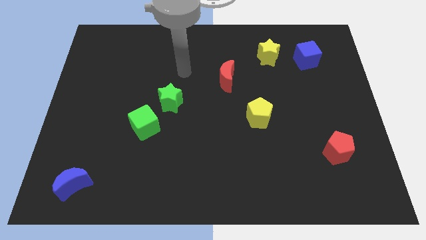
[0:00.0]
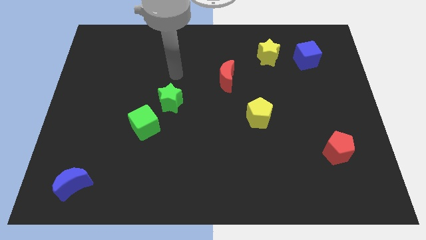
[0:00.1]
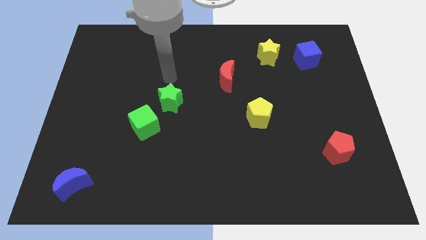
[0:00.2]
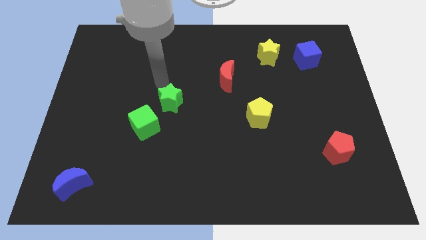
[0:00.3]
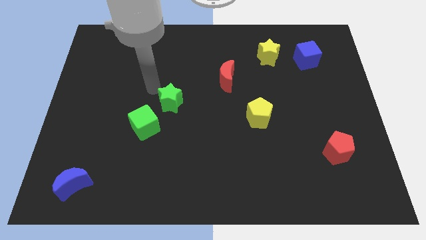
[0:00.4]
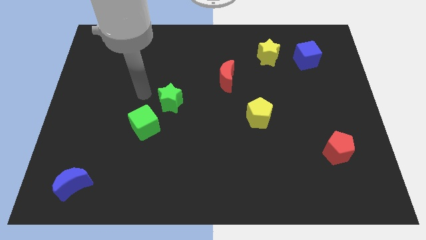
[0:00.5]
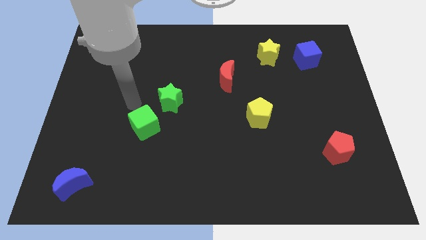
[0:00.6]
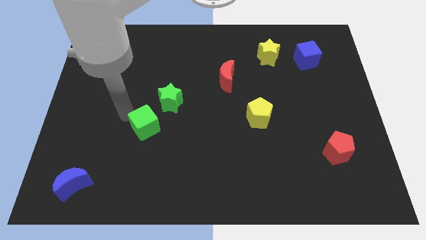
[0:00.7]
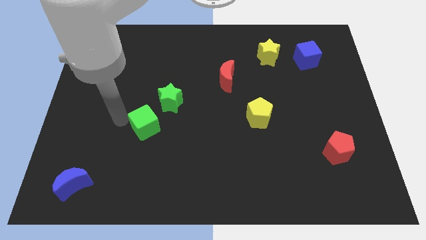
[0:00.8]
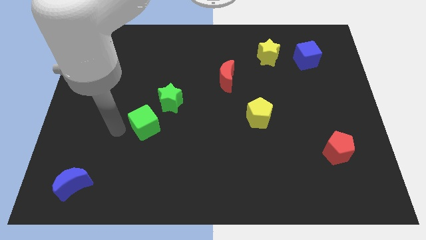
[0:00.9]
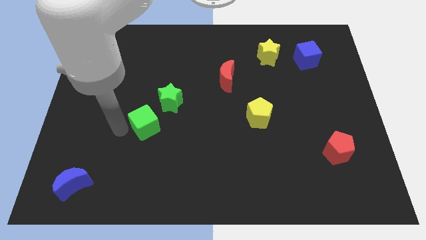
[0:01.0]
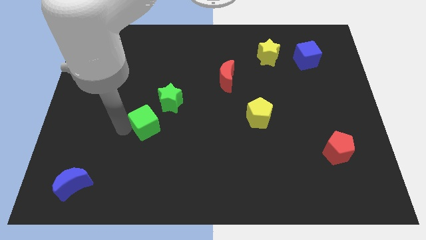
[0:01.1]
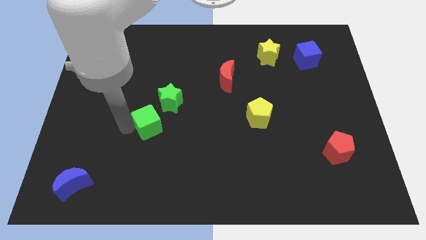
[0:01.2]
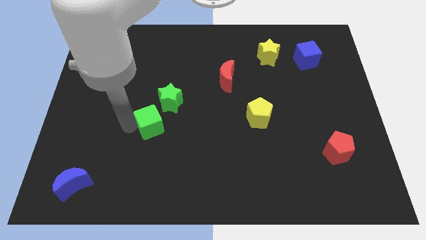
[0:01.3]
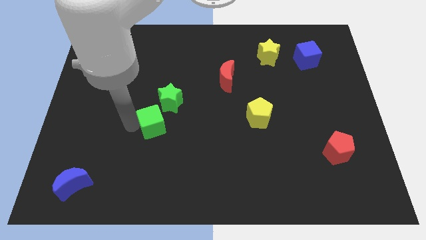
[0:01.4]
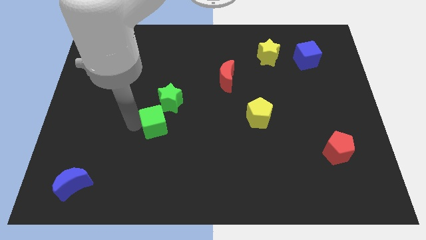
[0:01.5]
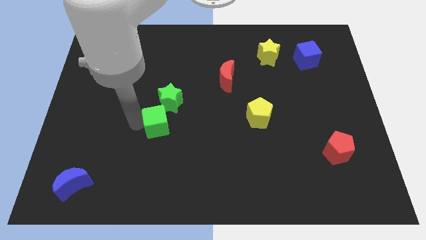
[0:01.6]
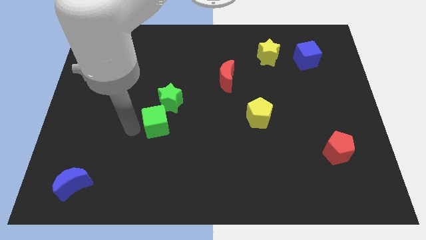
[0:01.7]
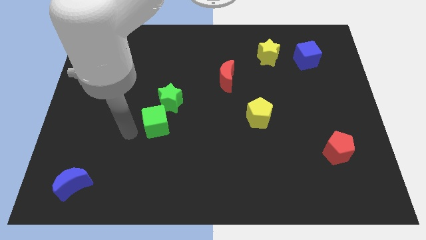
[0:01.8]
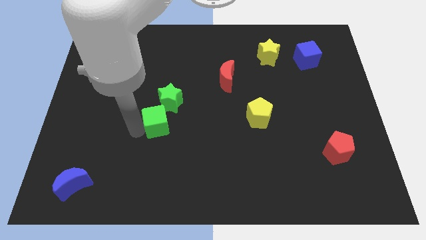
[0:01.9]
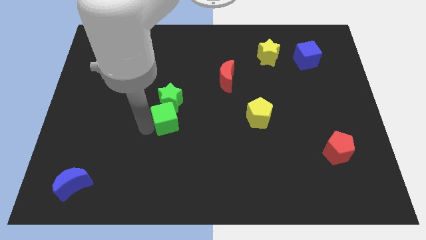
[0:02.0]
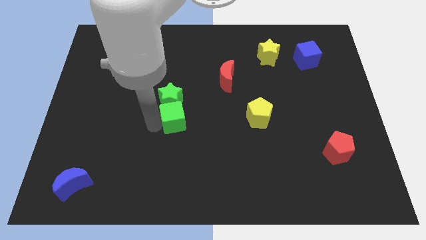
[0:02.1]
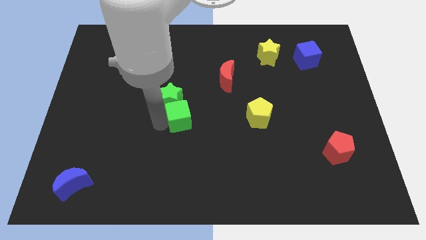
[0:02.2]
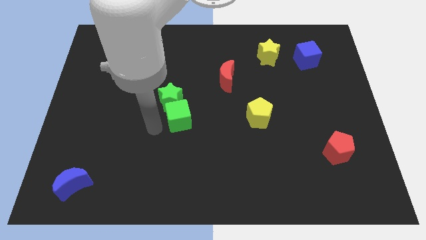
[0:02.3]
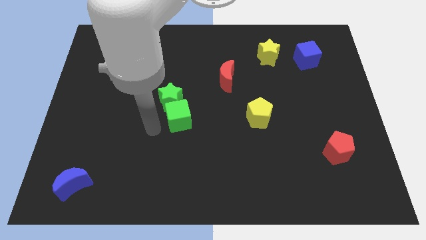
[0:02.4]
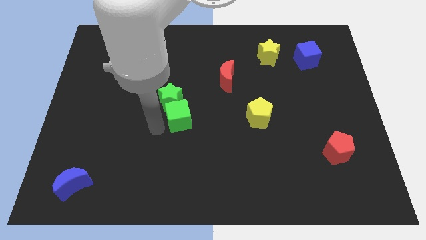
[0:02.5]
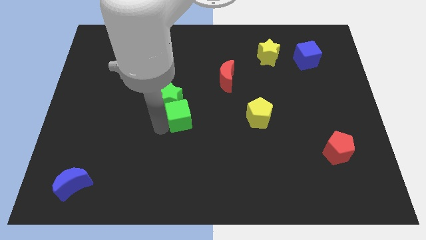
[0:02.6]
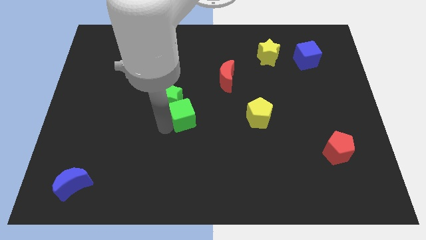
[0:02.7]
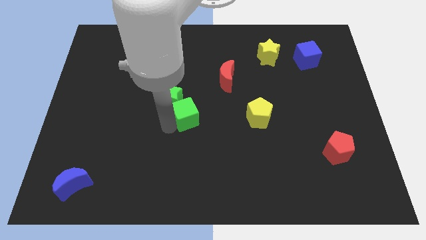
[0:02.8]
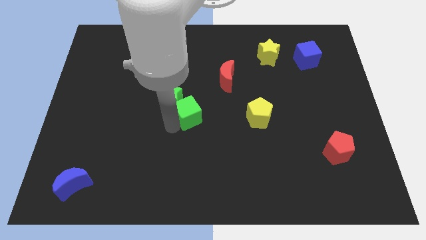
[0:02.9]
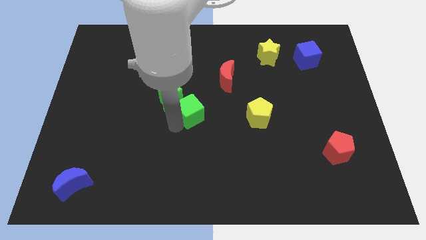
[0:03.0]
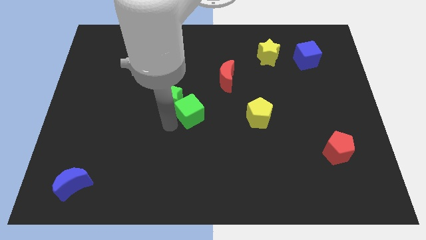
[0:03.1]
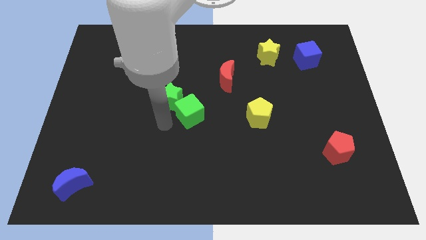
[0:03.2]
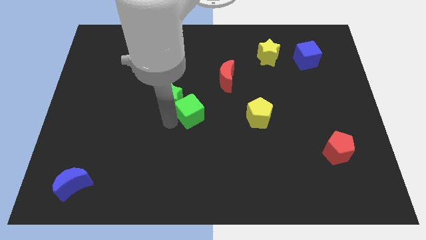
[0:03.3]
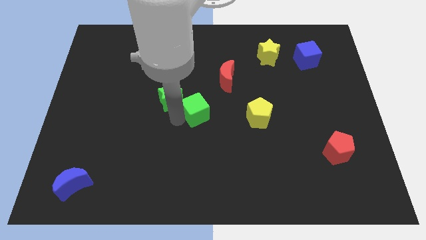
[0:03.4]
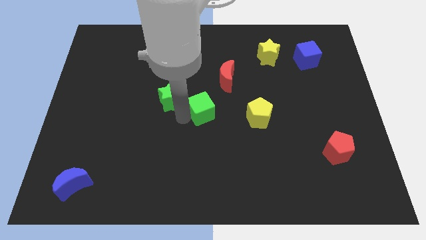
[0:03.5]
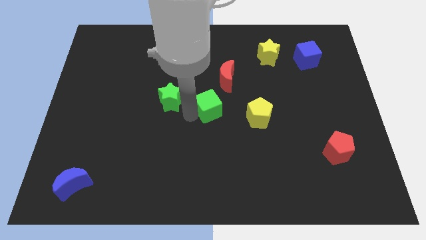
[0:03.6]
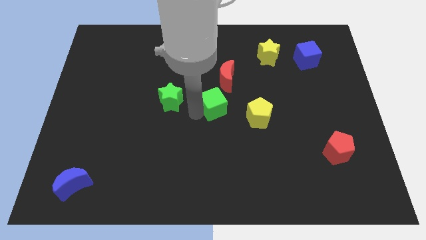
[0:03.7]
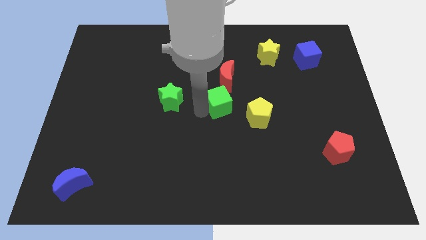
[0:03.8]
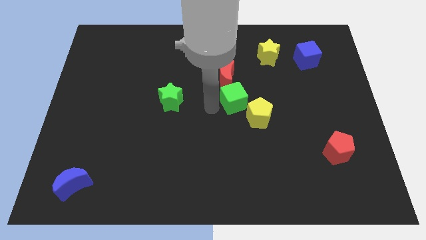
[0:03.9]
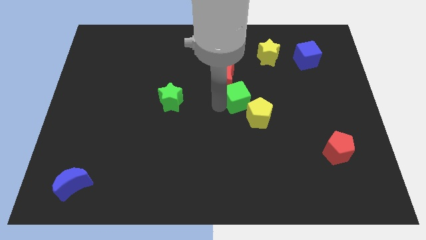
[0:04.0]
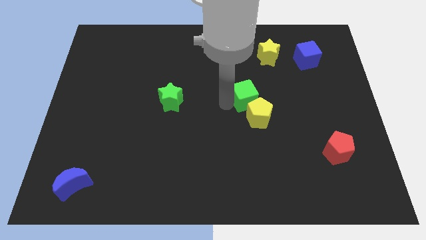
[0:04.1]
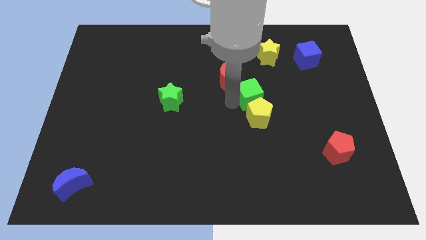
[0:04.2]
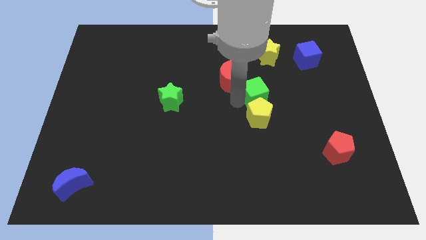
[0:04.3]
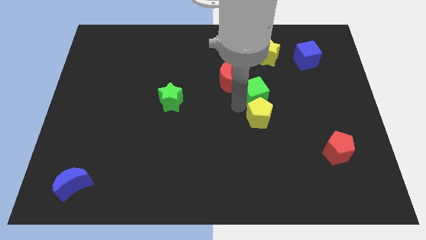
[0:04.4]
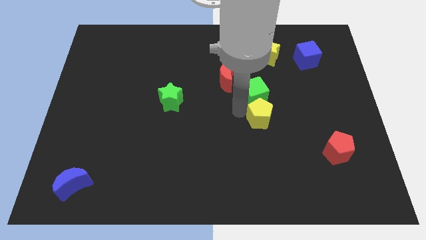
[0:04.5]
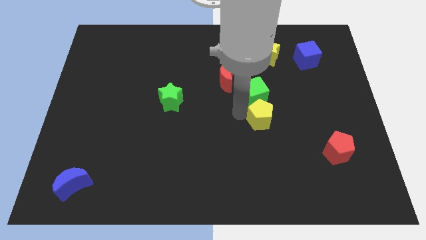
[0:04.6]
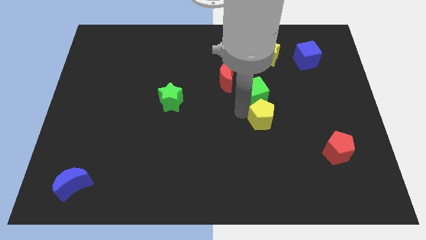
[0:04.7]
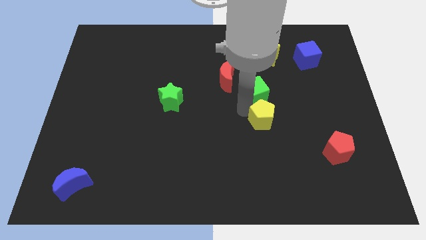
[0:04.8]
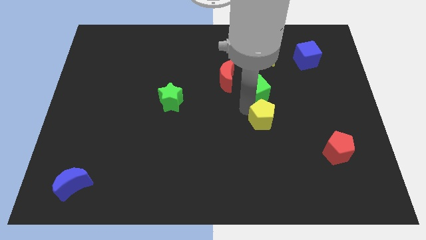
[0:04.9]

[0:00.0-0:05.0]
move the green cube to the right side of the red moon

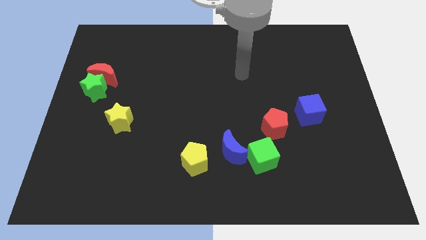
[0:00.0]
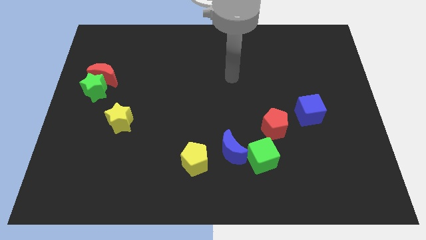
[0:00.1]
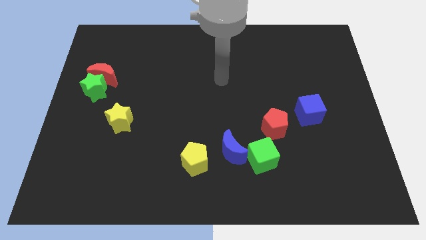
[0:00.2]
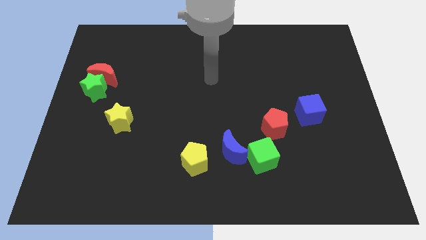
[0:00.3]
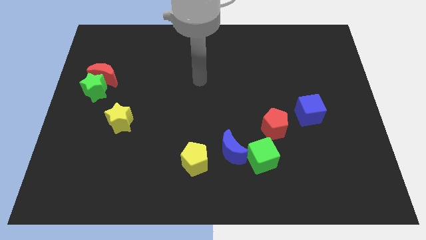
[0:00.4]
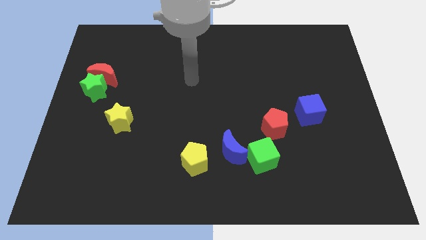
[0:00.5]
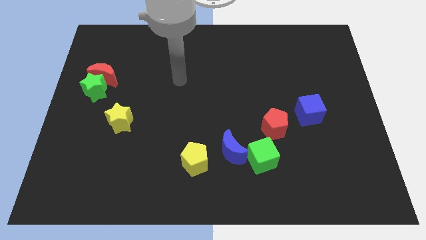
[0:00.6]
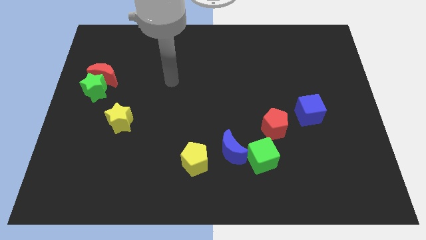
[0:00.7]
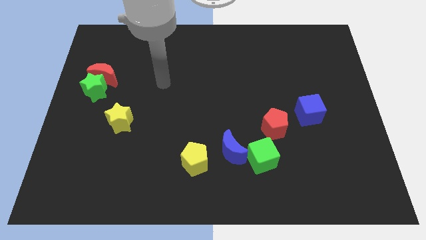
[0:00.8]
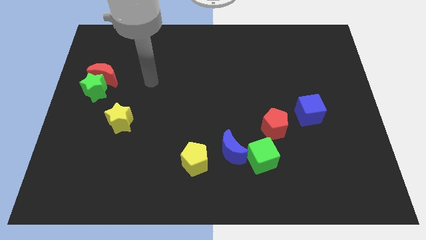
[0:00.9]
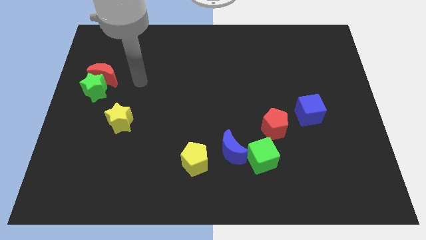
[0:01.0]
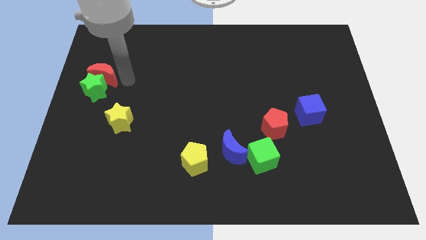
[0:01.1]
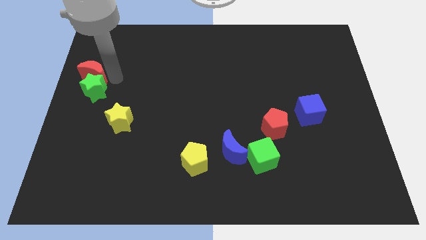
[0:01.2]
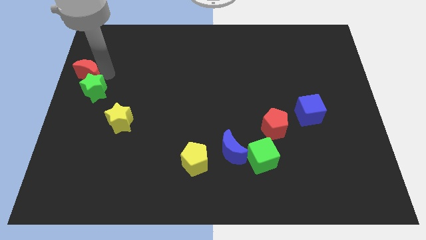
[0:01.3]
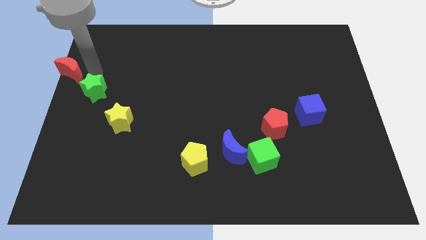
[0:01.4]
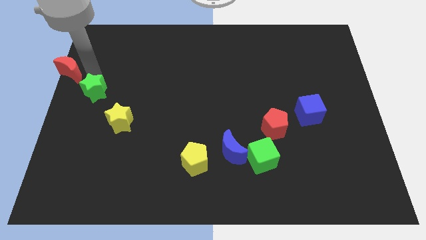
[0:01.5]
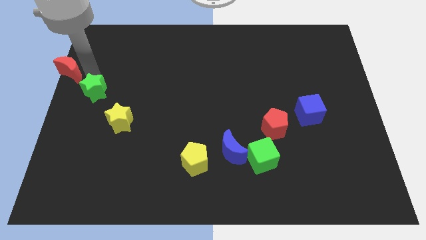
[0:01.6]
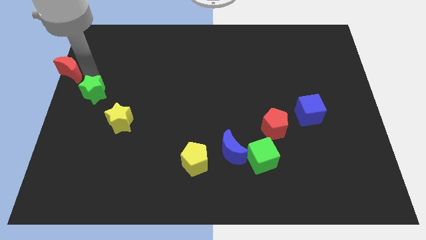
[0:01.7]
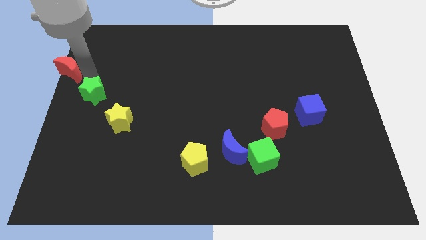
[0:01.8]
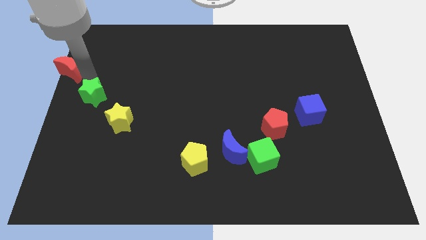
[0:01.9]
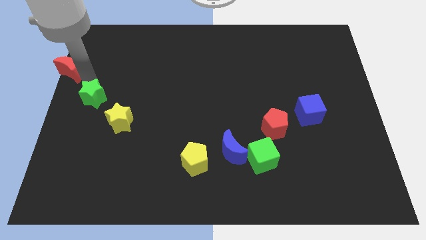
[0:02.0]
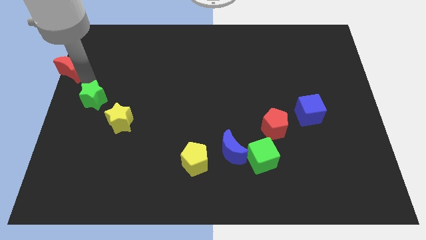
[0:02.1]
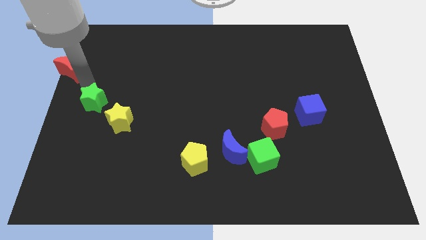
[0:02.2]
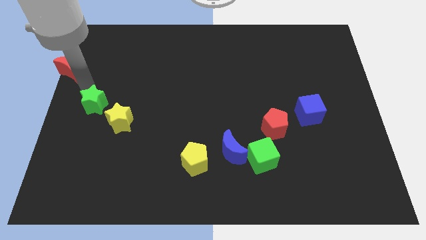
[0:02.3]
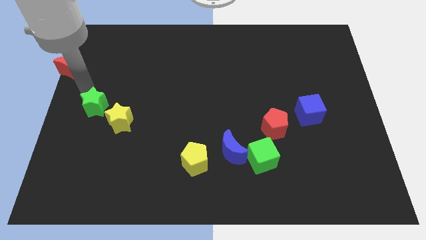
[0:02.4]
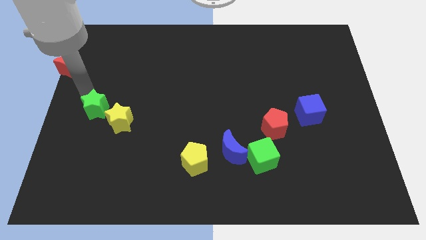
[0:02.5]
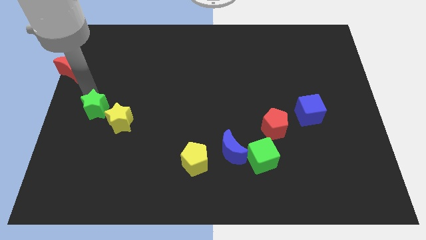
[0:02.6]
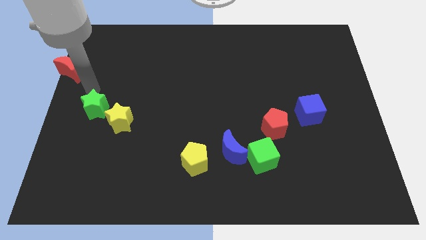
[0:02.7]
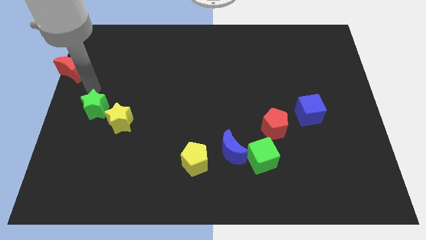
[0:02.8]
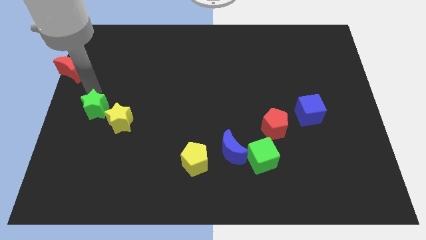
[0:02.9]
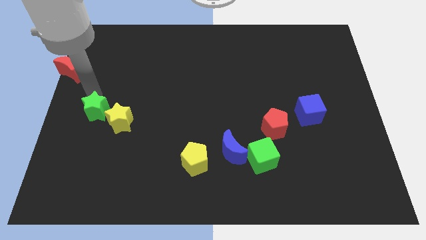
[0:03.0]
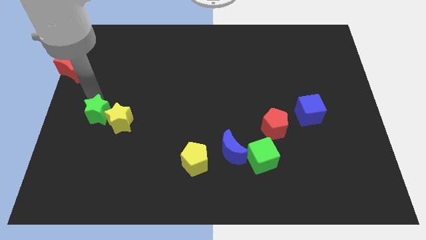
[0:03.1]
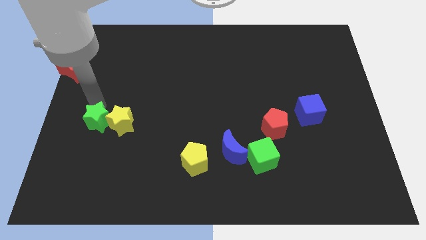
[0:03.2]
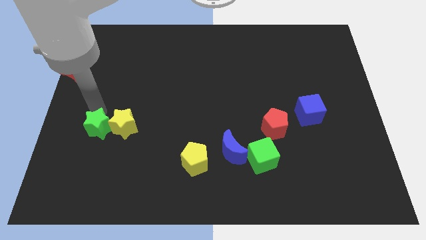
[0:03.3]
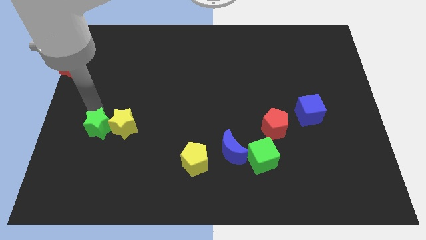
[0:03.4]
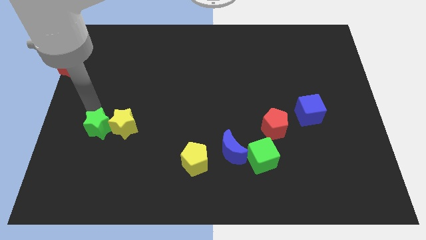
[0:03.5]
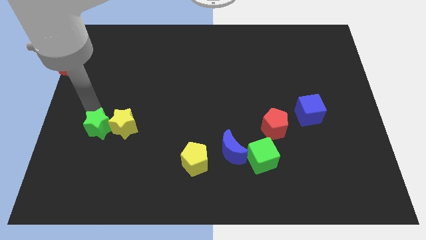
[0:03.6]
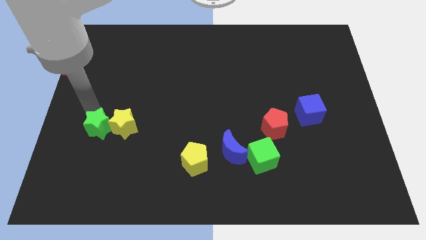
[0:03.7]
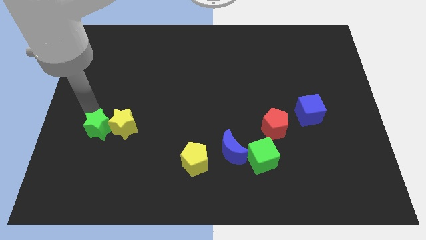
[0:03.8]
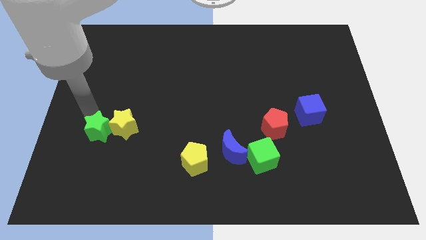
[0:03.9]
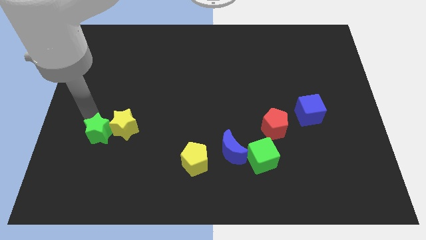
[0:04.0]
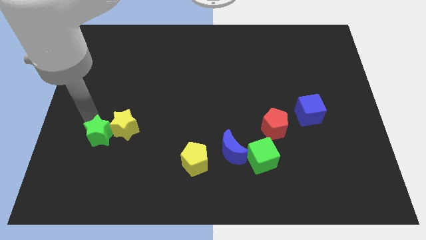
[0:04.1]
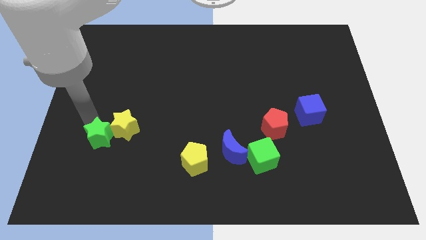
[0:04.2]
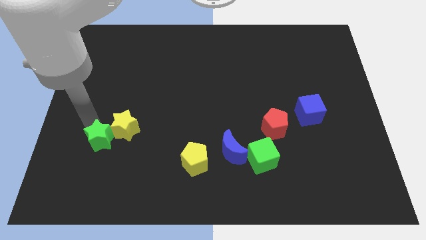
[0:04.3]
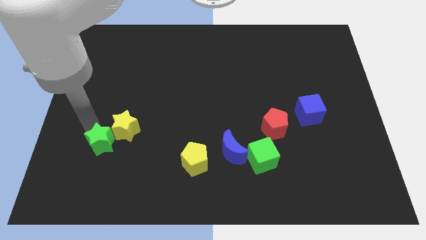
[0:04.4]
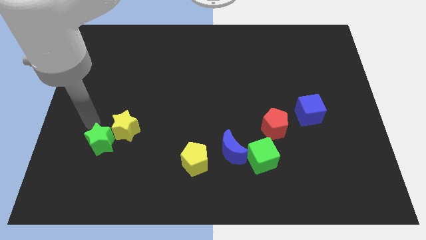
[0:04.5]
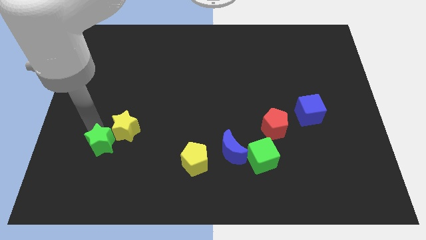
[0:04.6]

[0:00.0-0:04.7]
push the green star below the yellow star
